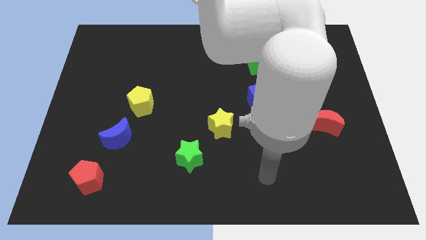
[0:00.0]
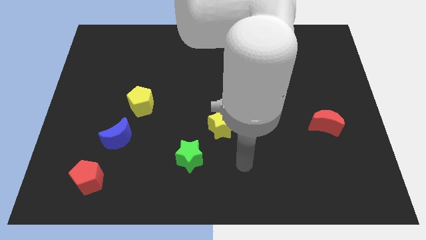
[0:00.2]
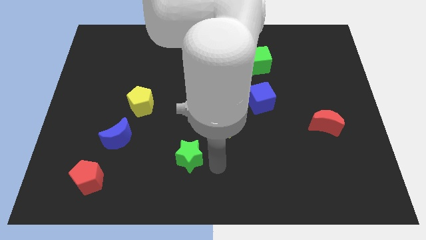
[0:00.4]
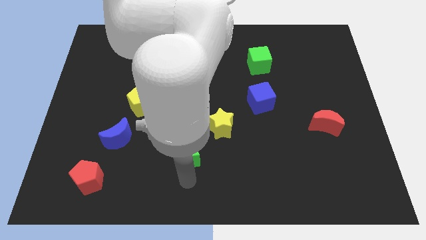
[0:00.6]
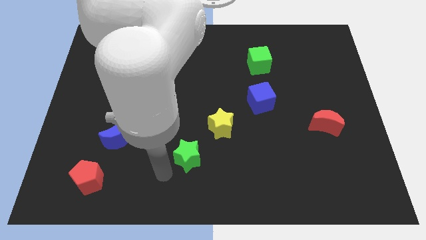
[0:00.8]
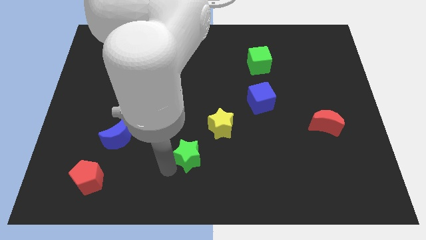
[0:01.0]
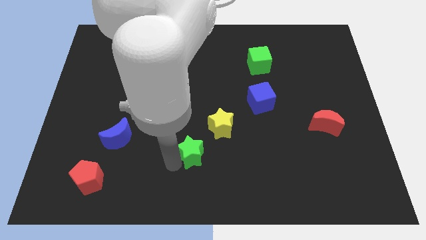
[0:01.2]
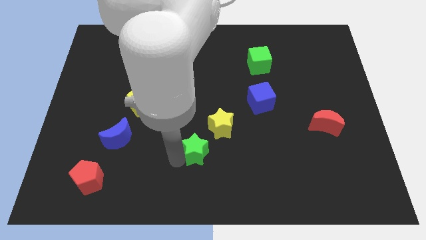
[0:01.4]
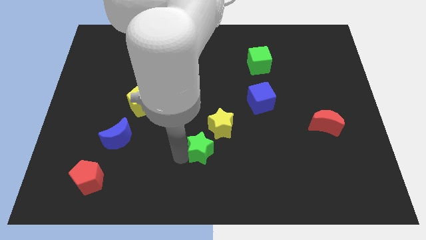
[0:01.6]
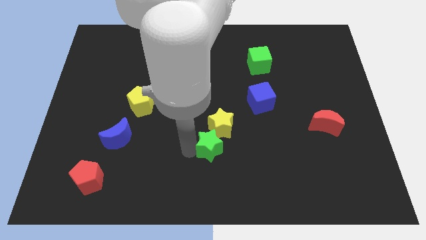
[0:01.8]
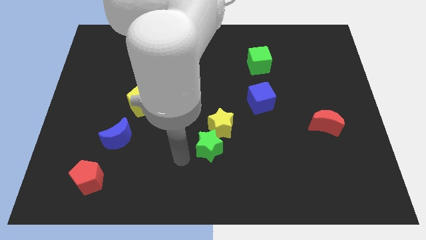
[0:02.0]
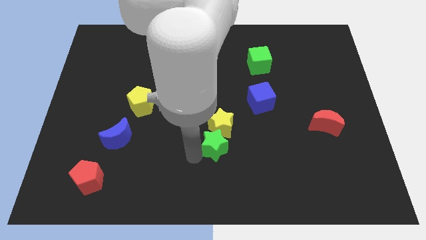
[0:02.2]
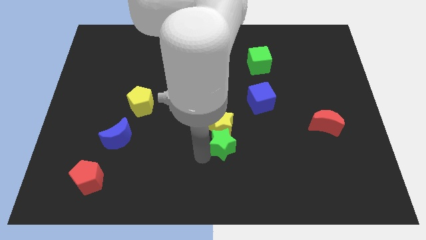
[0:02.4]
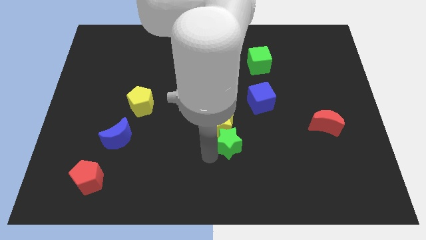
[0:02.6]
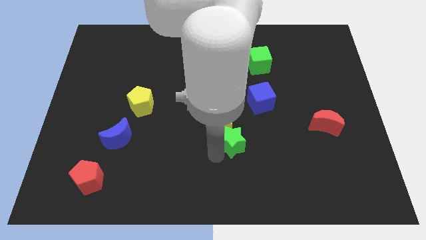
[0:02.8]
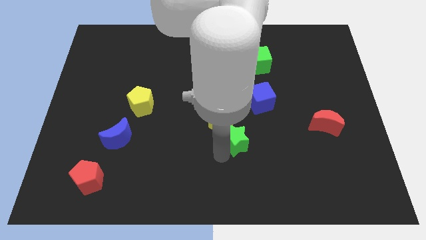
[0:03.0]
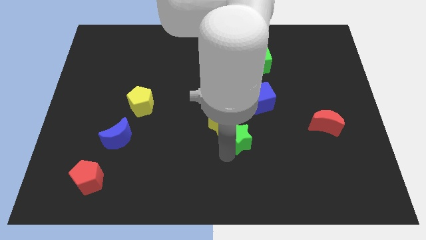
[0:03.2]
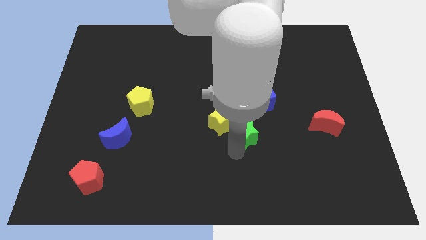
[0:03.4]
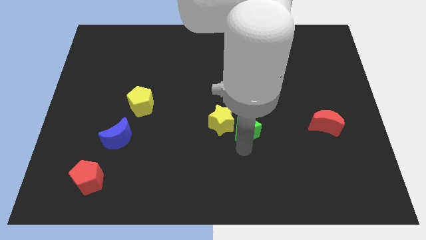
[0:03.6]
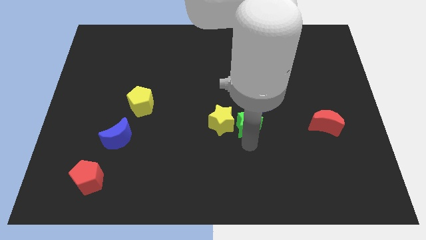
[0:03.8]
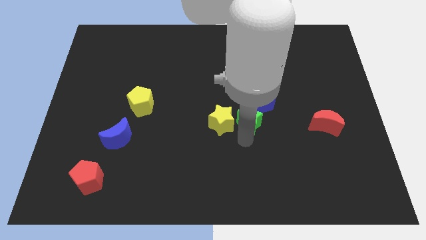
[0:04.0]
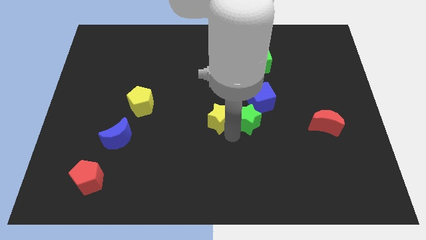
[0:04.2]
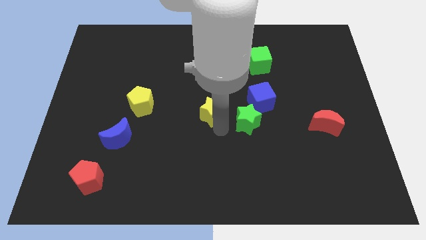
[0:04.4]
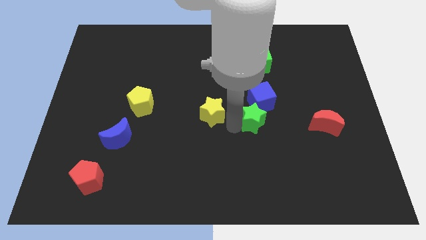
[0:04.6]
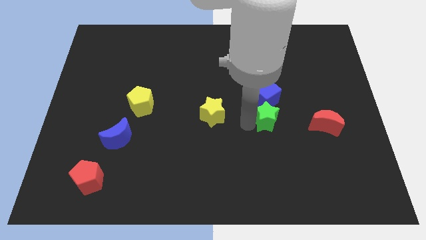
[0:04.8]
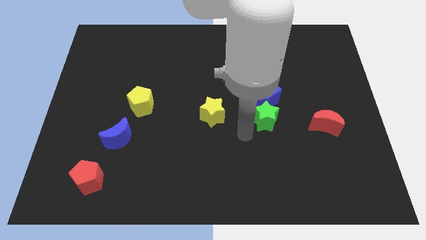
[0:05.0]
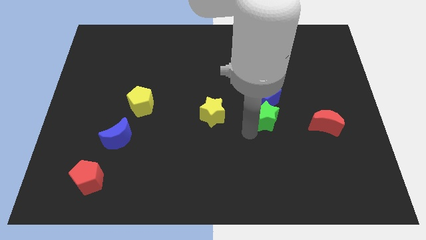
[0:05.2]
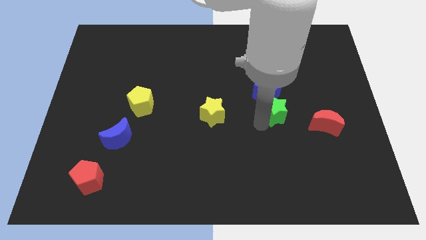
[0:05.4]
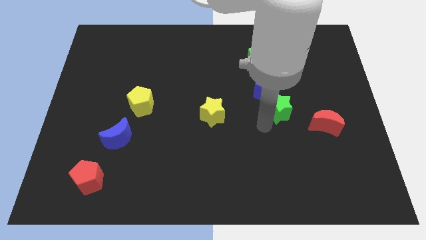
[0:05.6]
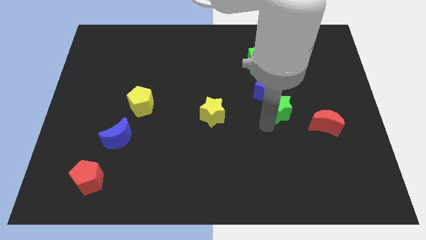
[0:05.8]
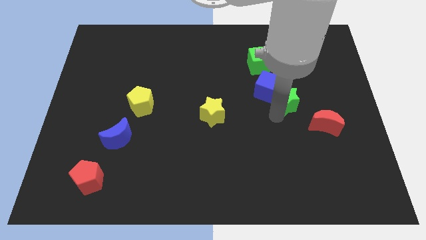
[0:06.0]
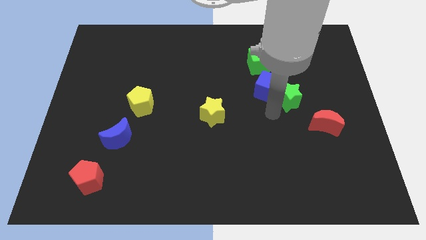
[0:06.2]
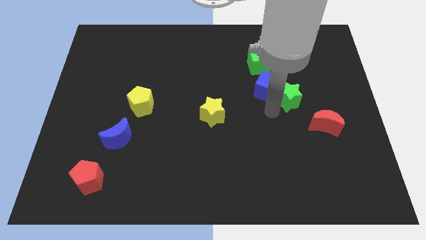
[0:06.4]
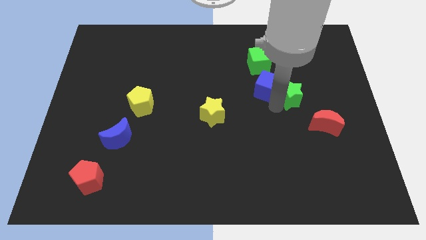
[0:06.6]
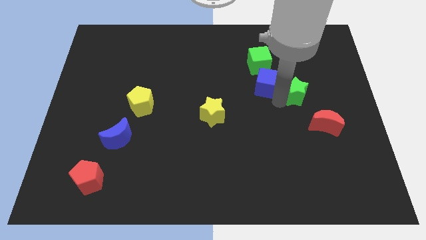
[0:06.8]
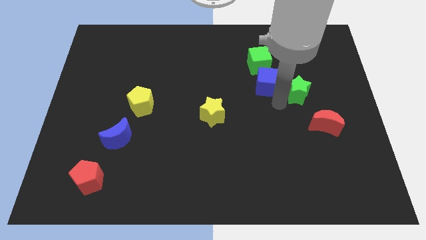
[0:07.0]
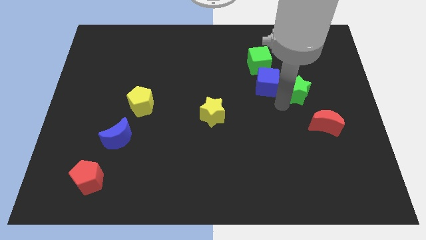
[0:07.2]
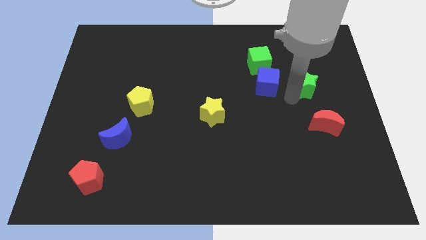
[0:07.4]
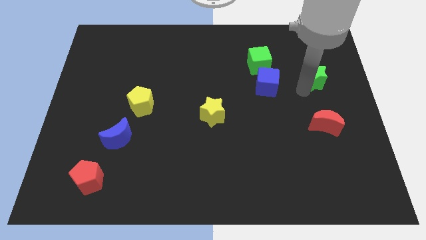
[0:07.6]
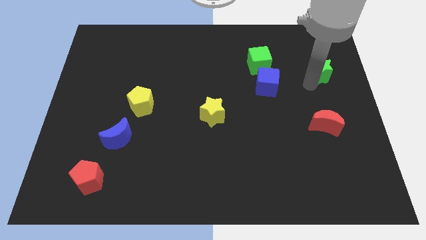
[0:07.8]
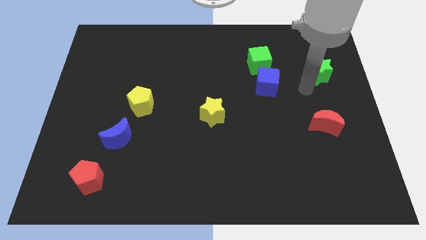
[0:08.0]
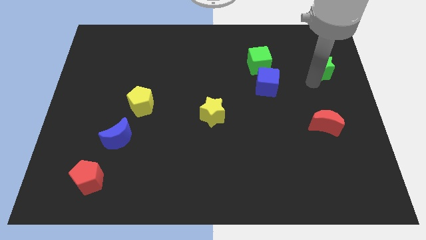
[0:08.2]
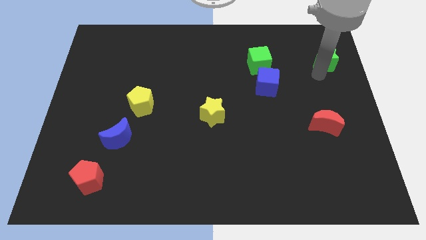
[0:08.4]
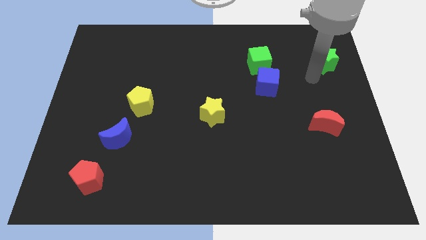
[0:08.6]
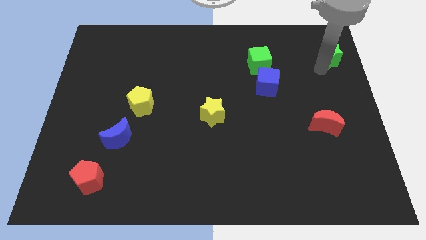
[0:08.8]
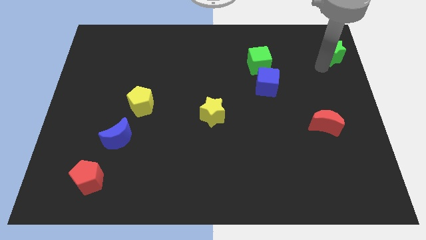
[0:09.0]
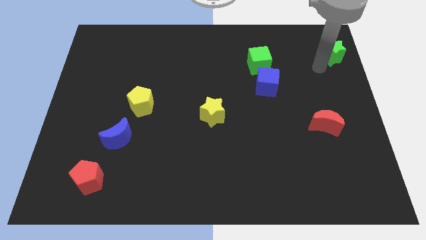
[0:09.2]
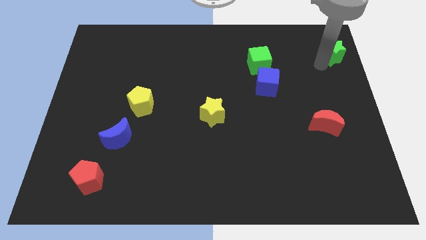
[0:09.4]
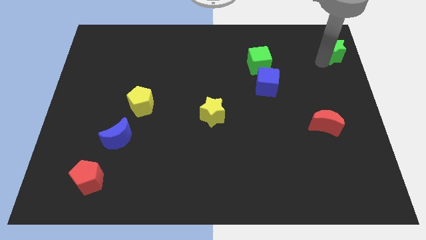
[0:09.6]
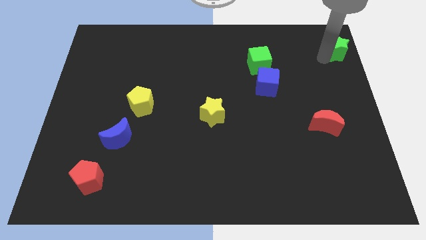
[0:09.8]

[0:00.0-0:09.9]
slide the green star to the top right

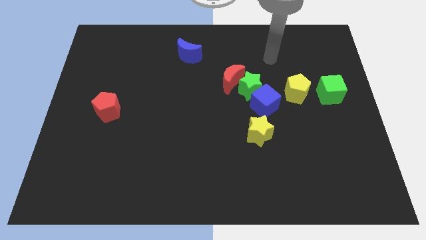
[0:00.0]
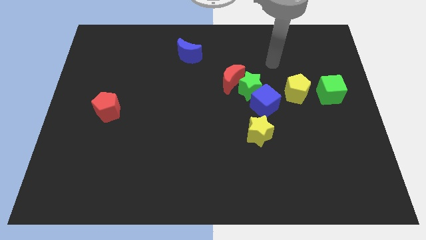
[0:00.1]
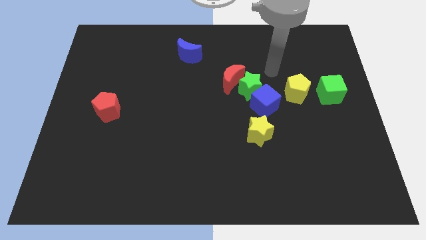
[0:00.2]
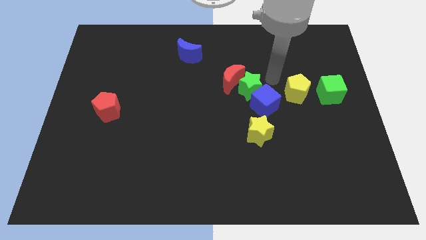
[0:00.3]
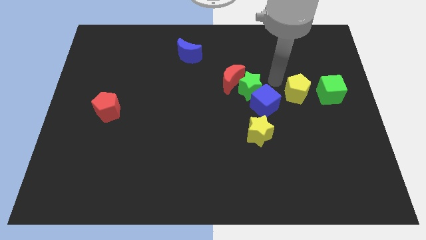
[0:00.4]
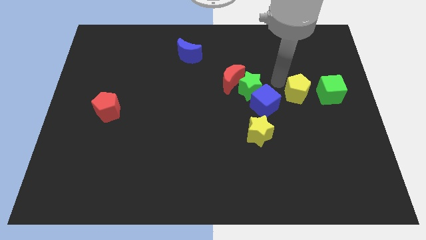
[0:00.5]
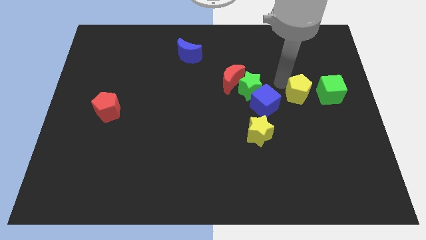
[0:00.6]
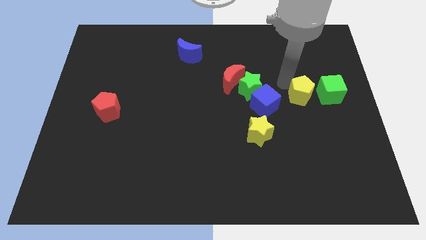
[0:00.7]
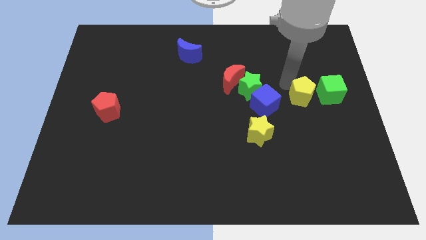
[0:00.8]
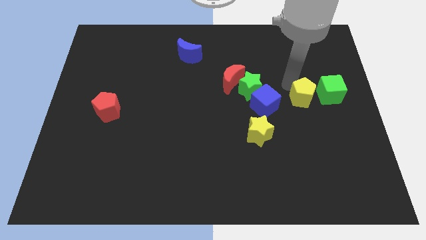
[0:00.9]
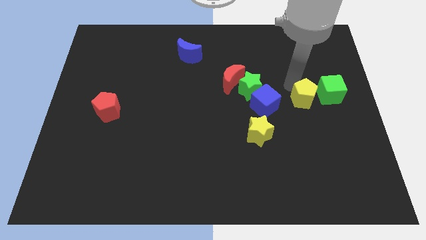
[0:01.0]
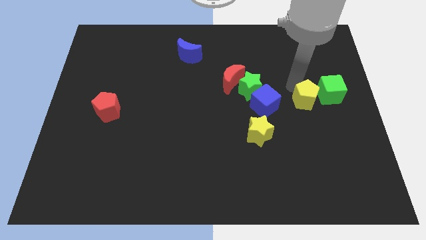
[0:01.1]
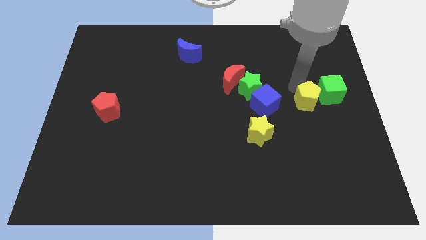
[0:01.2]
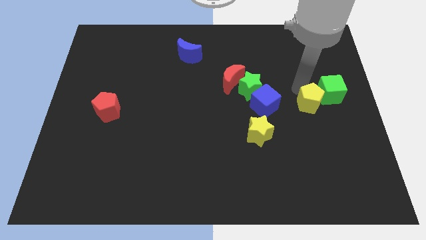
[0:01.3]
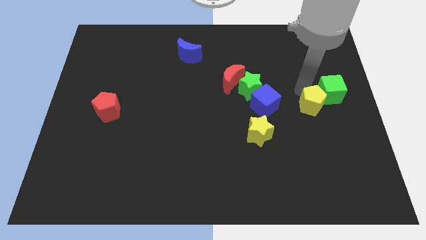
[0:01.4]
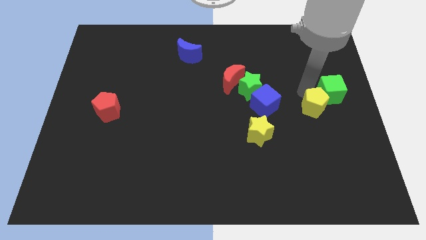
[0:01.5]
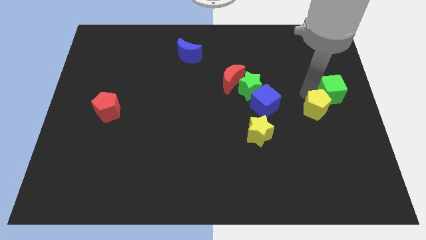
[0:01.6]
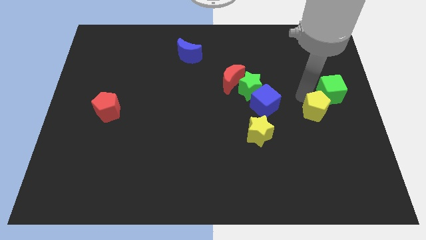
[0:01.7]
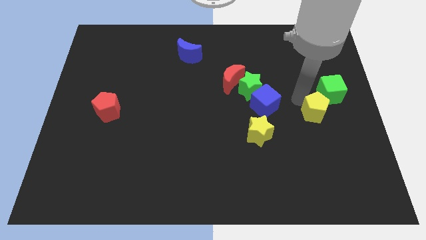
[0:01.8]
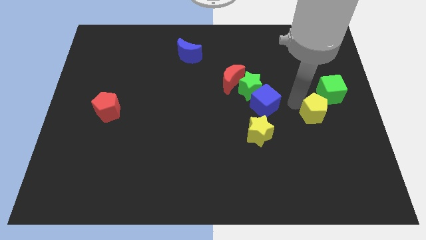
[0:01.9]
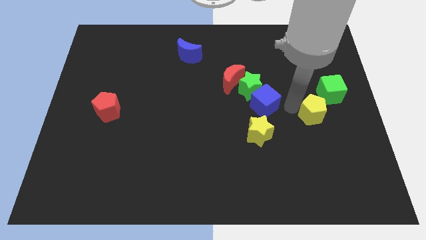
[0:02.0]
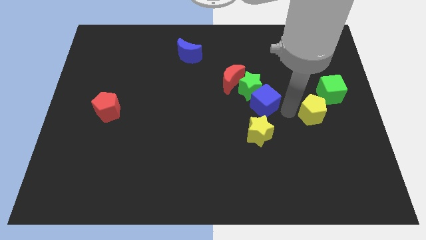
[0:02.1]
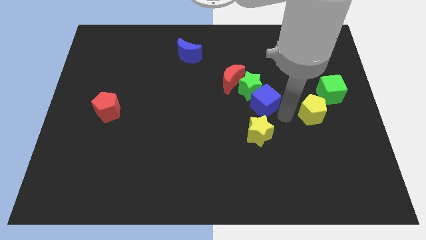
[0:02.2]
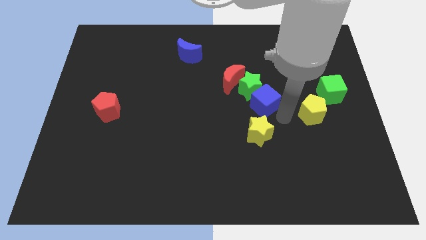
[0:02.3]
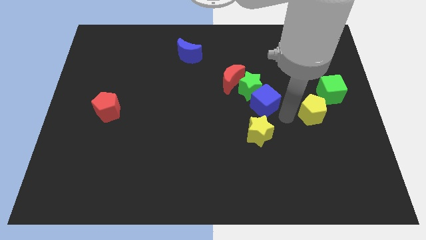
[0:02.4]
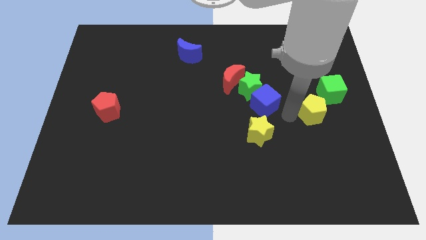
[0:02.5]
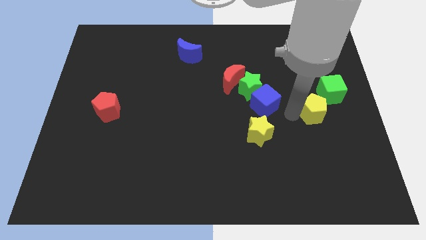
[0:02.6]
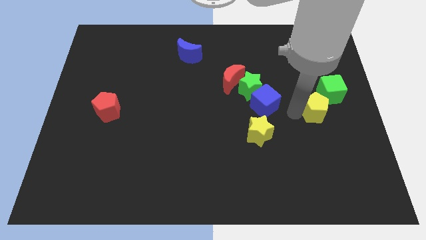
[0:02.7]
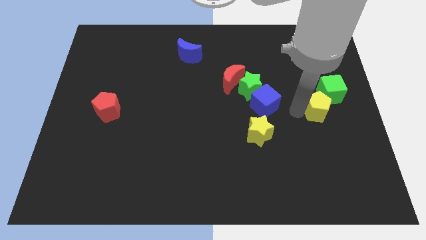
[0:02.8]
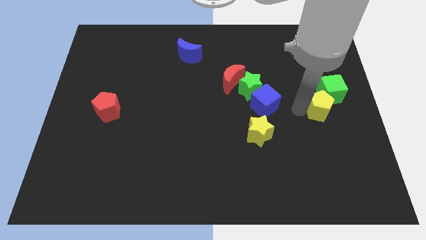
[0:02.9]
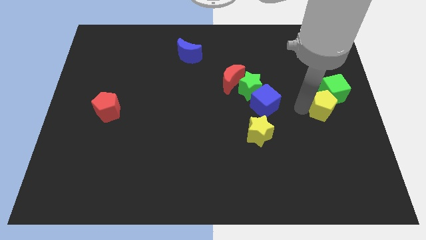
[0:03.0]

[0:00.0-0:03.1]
move the yellow pentagon to the right side
